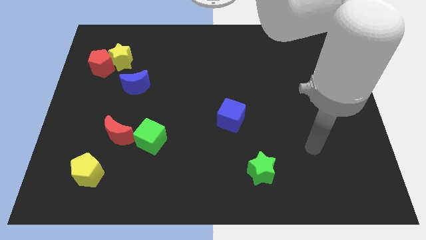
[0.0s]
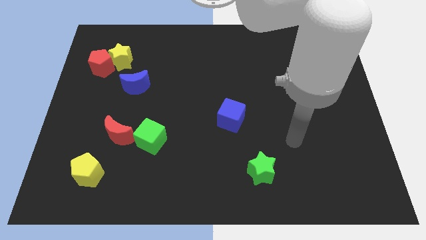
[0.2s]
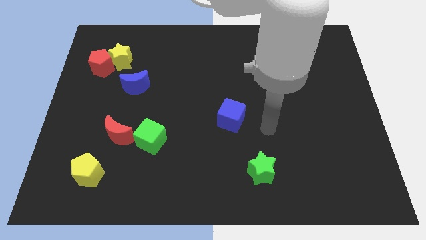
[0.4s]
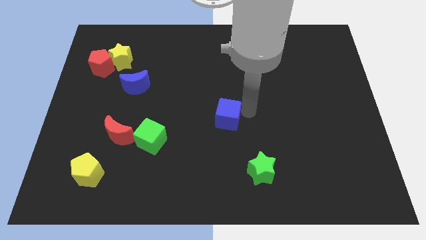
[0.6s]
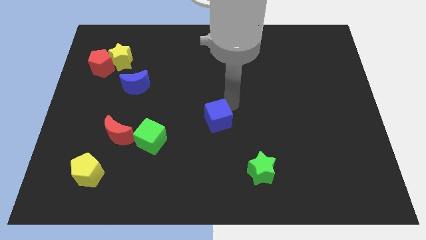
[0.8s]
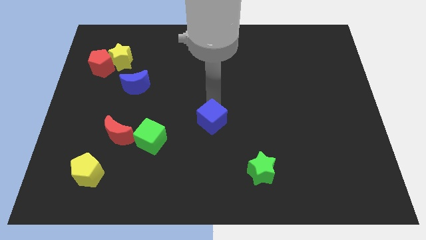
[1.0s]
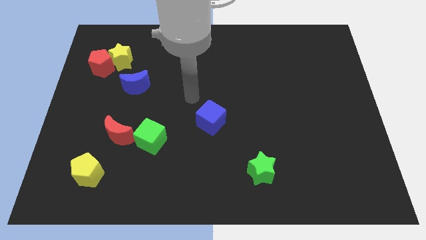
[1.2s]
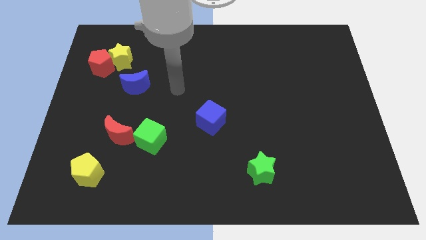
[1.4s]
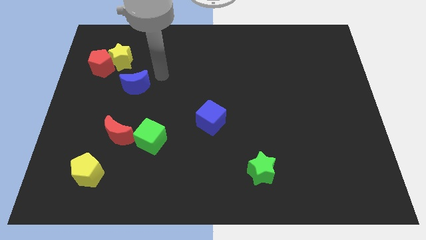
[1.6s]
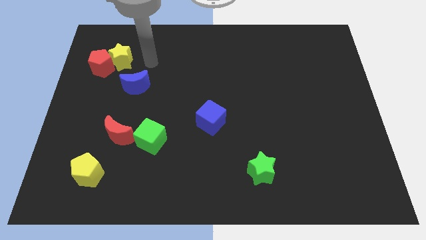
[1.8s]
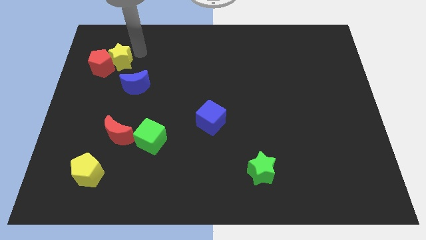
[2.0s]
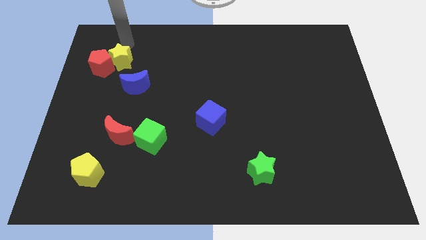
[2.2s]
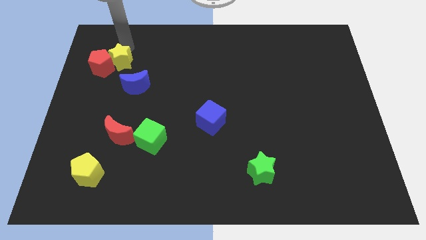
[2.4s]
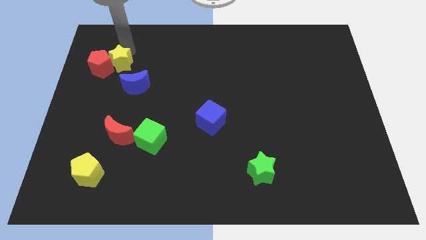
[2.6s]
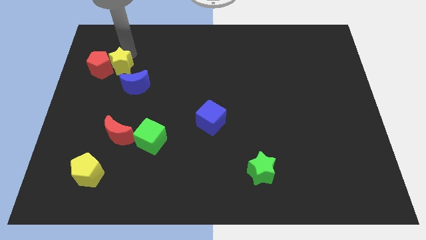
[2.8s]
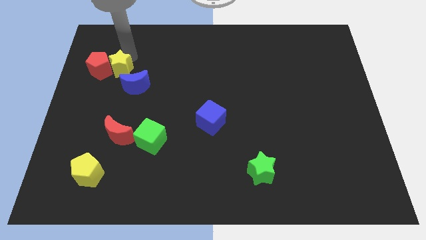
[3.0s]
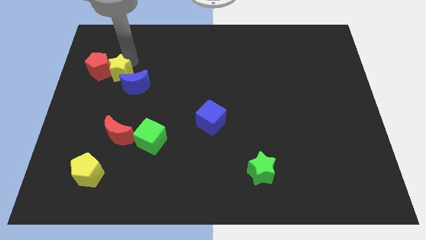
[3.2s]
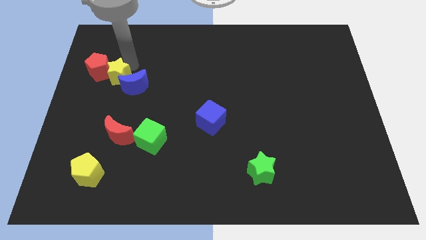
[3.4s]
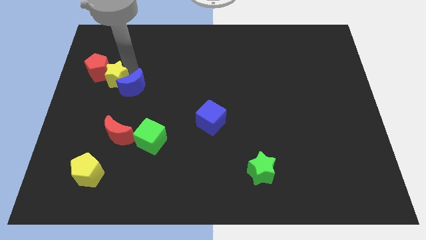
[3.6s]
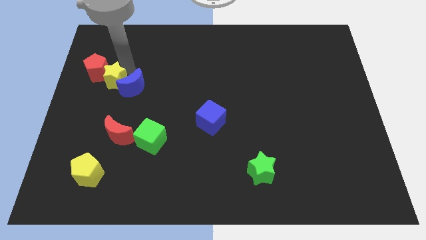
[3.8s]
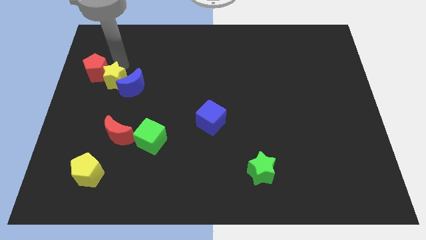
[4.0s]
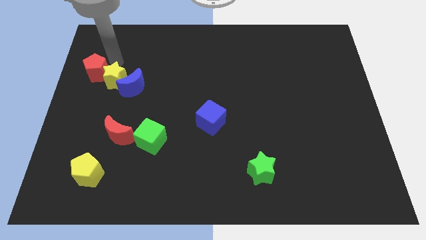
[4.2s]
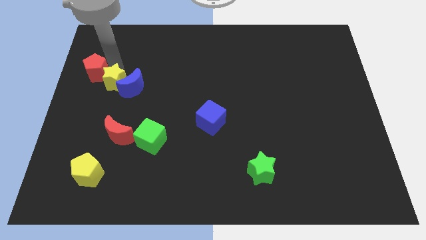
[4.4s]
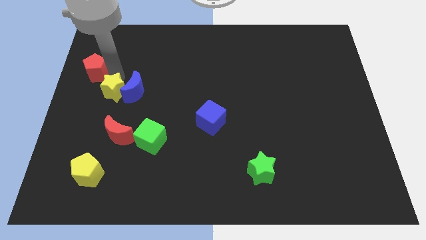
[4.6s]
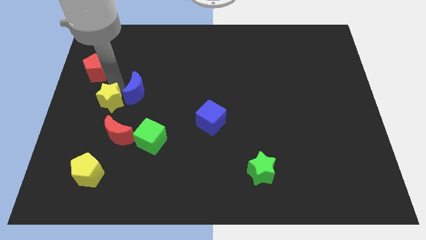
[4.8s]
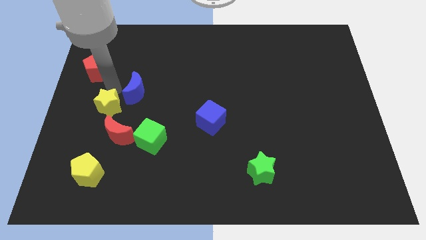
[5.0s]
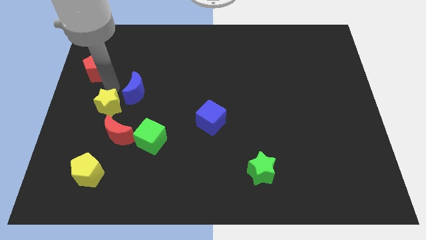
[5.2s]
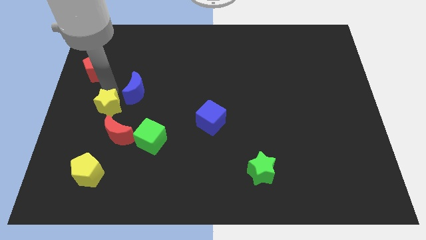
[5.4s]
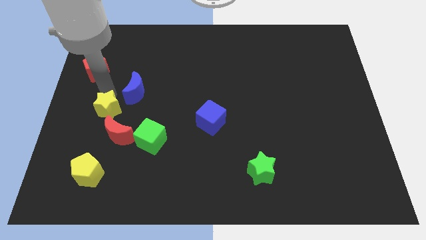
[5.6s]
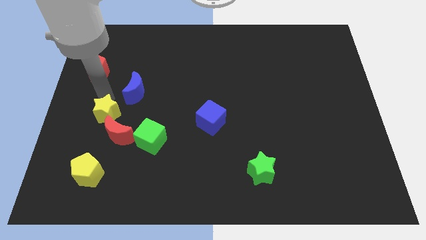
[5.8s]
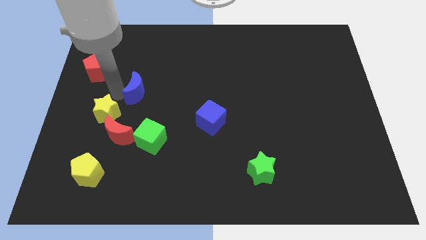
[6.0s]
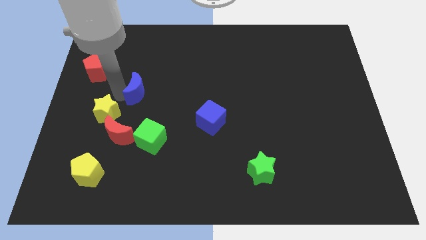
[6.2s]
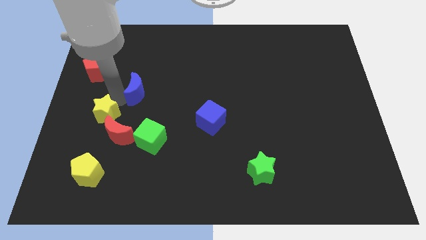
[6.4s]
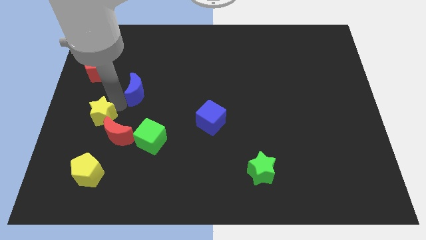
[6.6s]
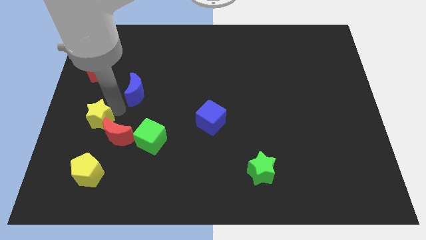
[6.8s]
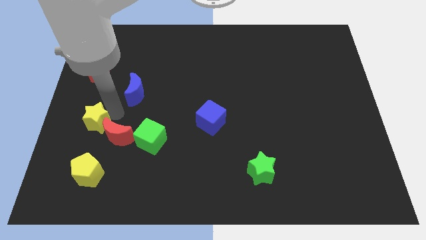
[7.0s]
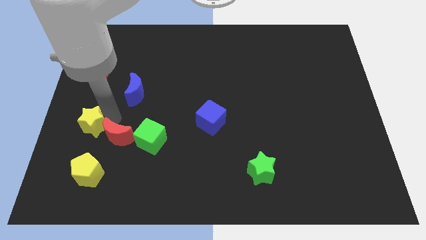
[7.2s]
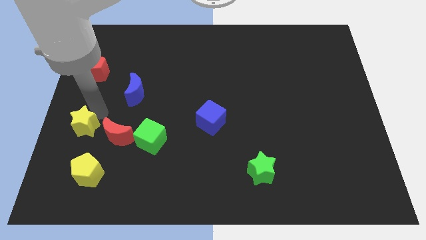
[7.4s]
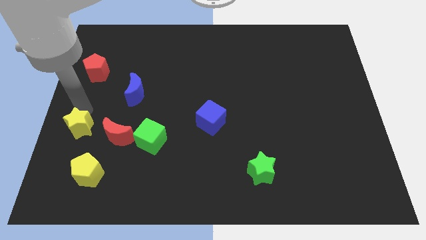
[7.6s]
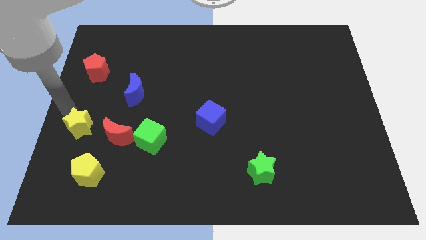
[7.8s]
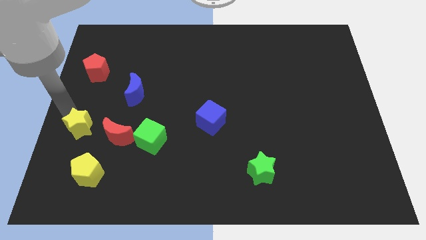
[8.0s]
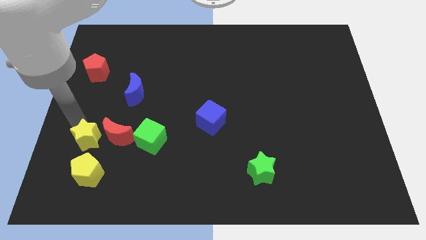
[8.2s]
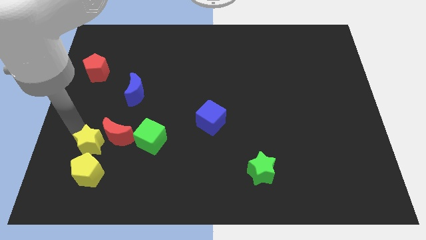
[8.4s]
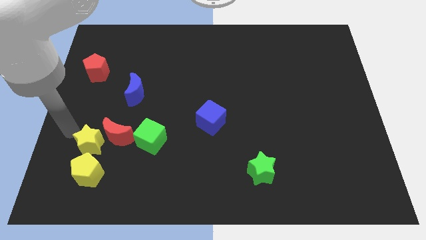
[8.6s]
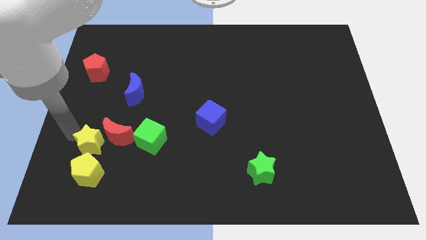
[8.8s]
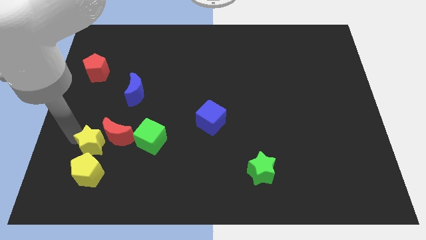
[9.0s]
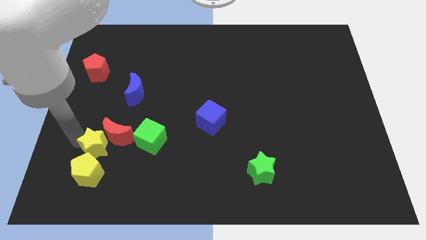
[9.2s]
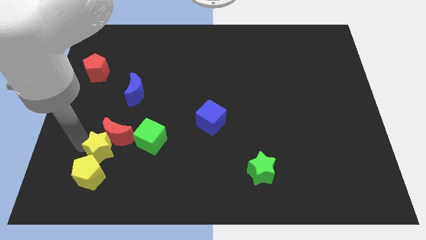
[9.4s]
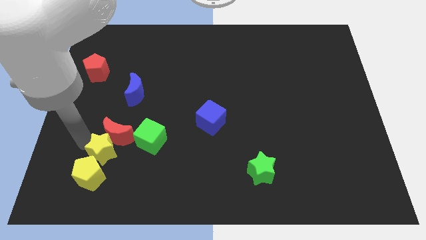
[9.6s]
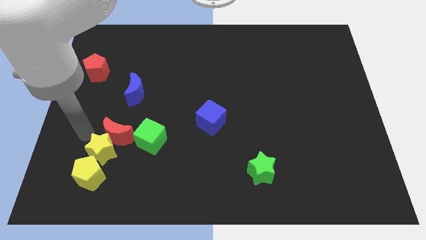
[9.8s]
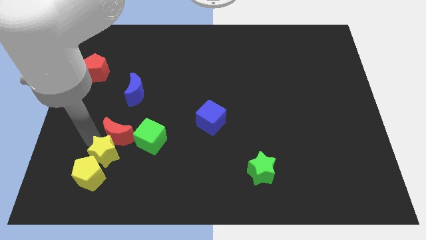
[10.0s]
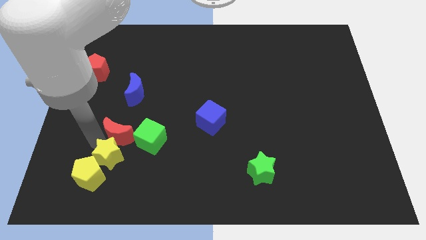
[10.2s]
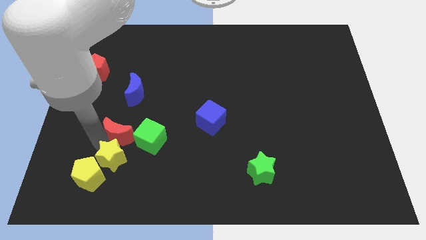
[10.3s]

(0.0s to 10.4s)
slide the yellow star right of the yellow pentagon

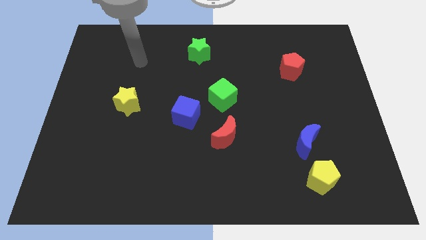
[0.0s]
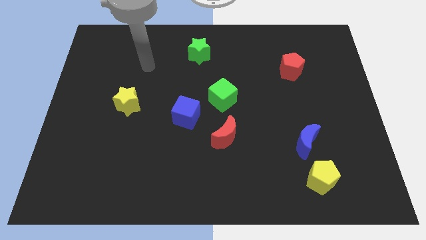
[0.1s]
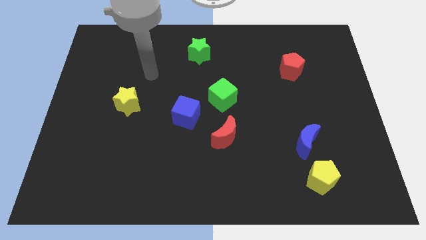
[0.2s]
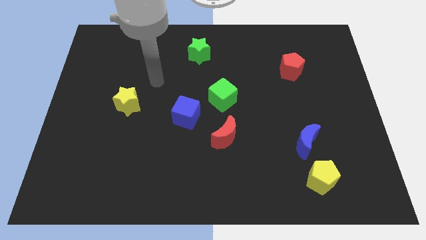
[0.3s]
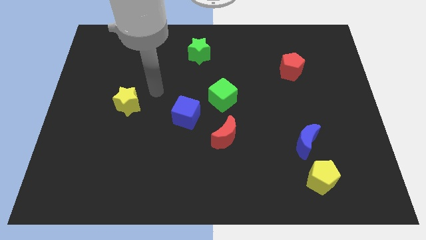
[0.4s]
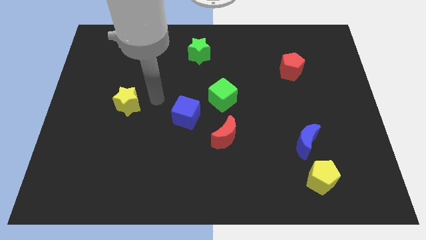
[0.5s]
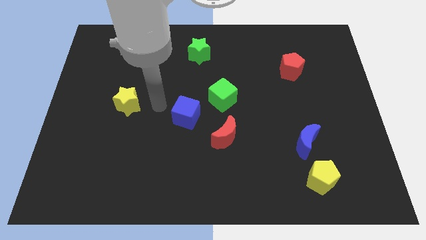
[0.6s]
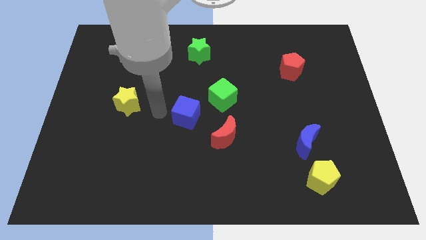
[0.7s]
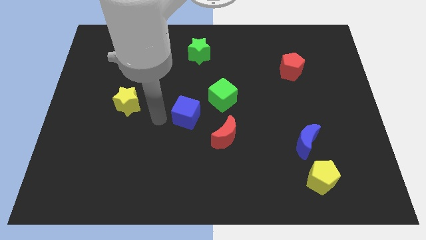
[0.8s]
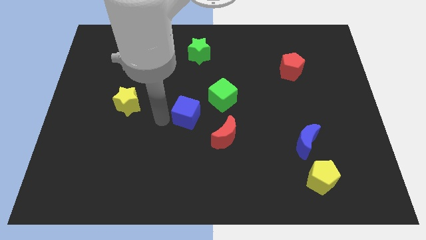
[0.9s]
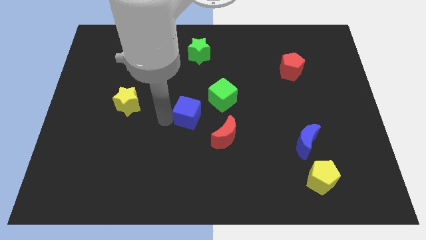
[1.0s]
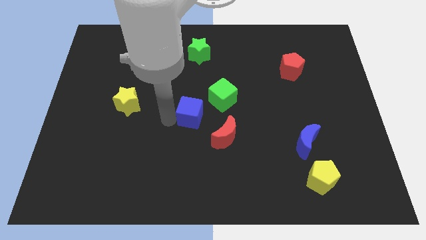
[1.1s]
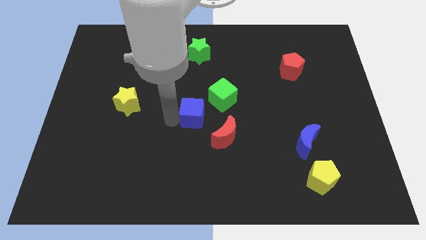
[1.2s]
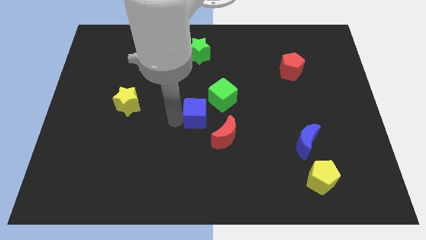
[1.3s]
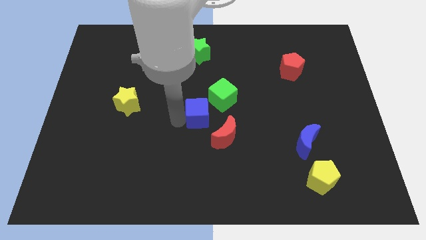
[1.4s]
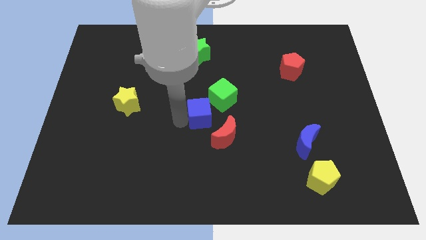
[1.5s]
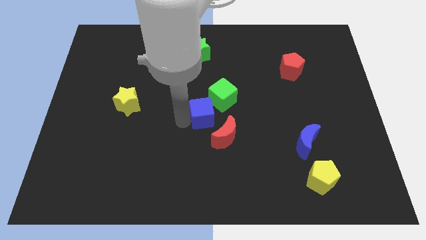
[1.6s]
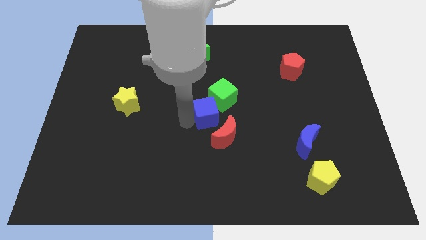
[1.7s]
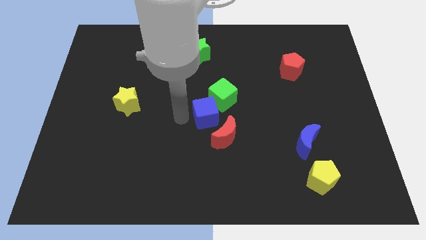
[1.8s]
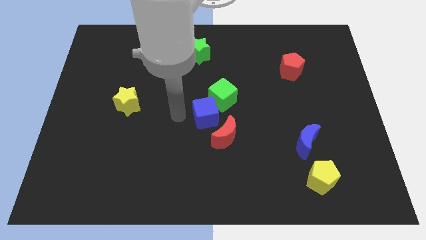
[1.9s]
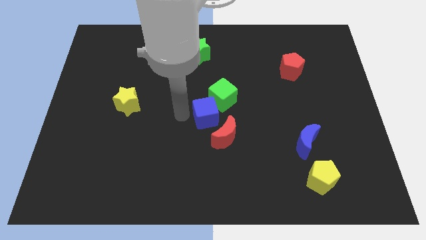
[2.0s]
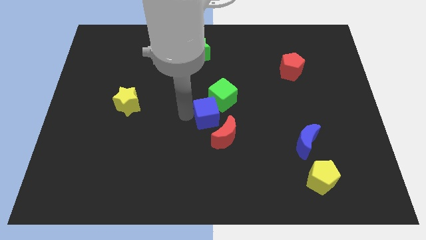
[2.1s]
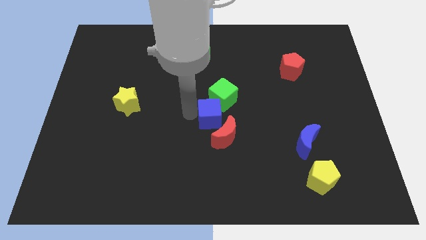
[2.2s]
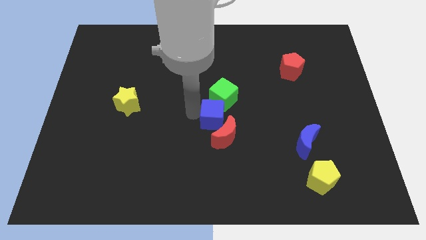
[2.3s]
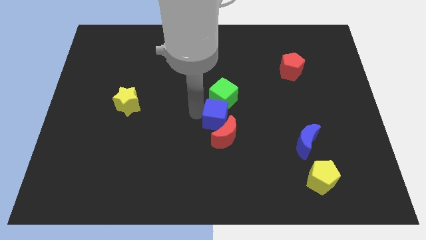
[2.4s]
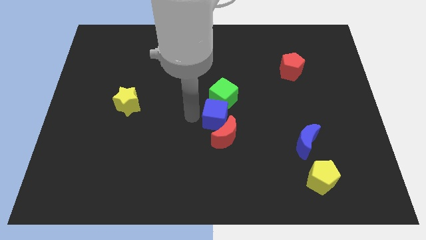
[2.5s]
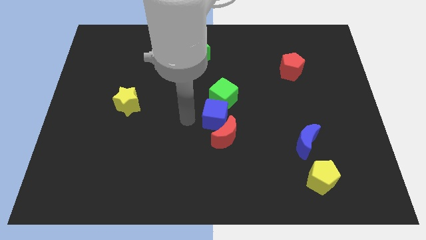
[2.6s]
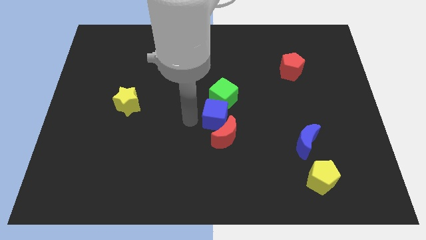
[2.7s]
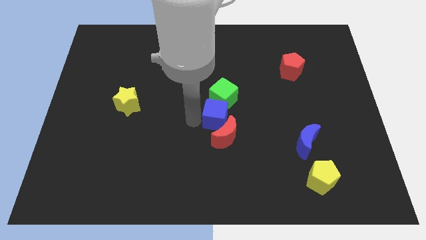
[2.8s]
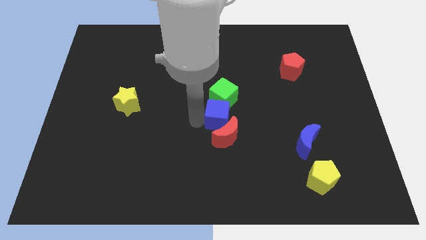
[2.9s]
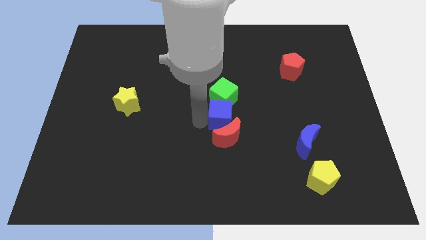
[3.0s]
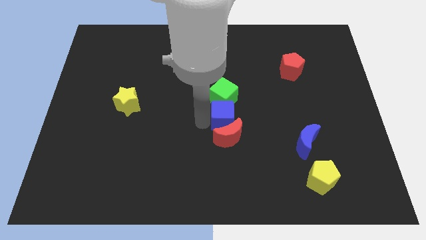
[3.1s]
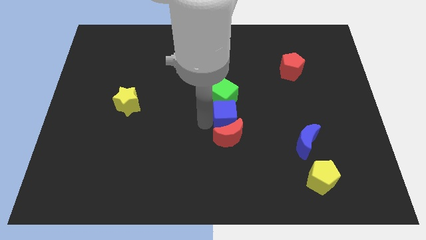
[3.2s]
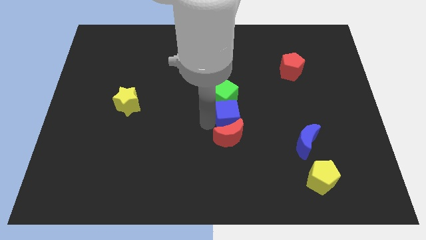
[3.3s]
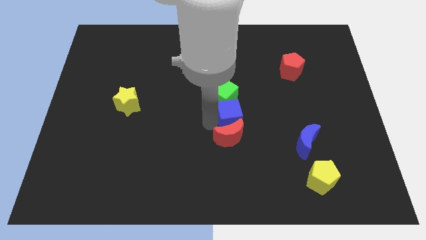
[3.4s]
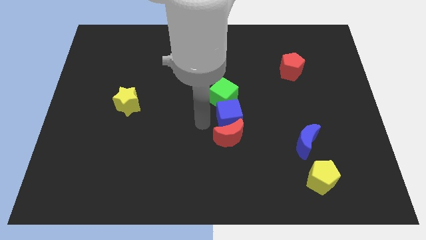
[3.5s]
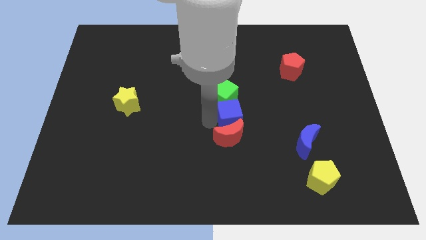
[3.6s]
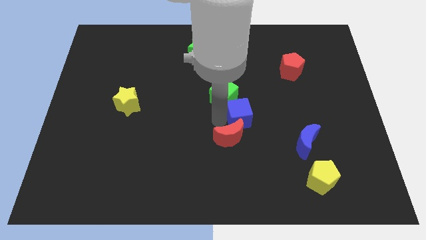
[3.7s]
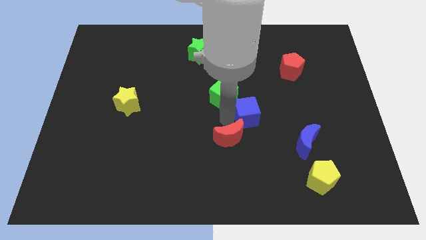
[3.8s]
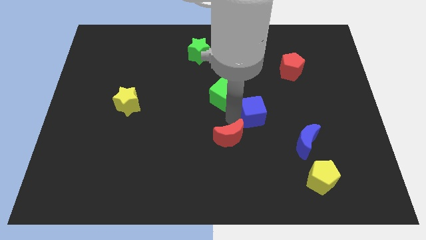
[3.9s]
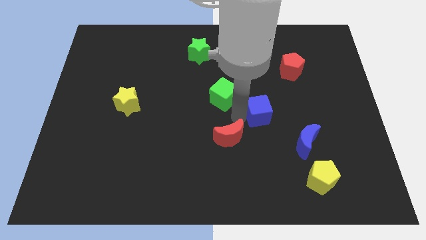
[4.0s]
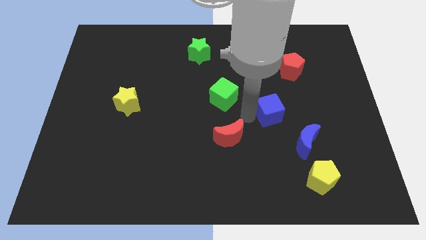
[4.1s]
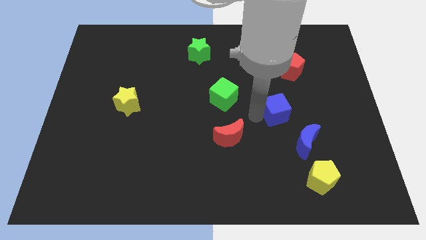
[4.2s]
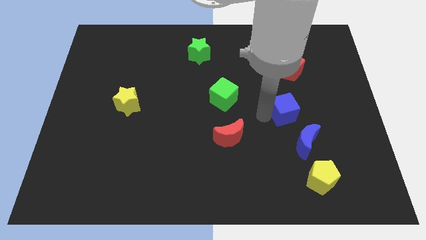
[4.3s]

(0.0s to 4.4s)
put the blue cube to the bottom of the red pentagon
